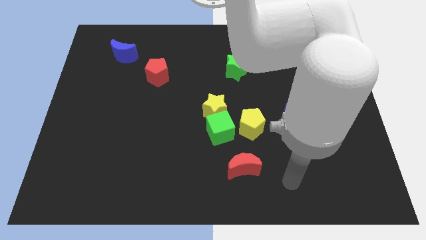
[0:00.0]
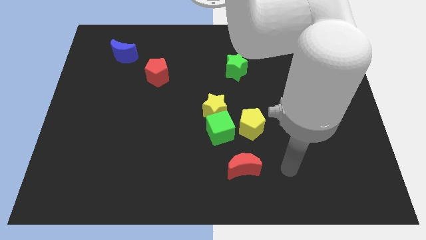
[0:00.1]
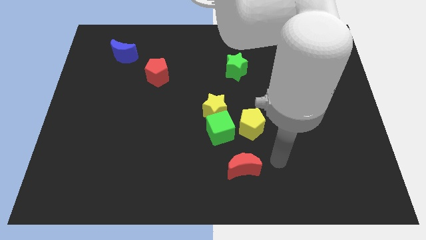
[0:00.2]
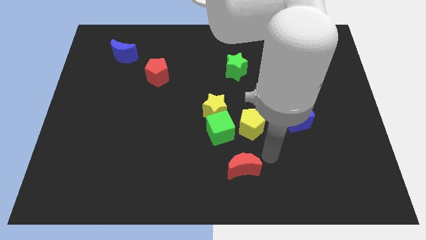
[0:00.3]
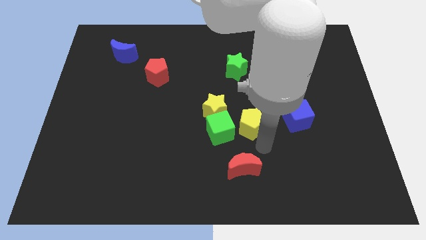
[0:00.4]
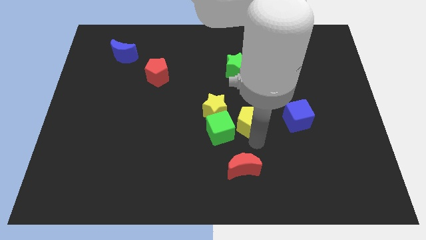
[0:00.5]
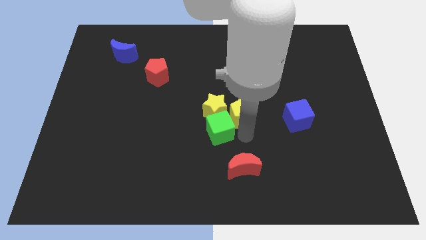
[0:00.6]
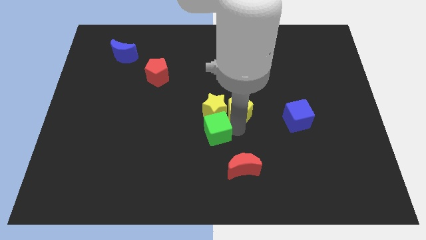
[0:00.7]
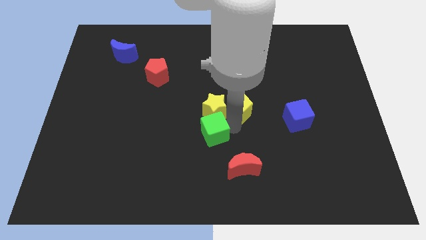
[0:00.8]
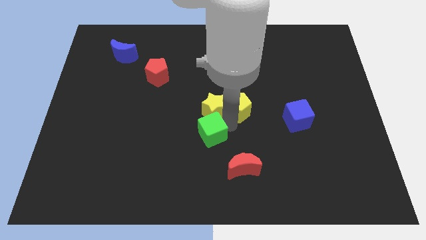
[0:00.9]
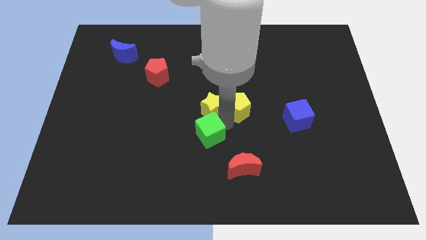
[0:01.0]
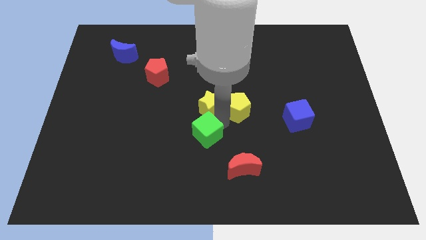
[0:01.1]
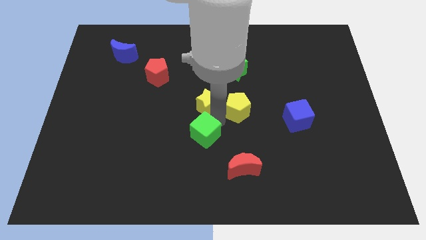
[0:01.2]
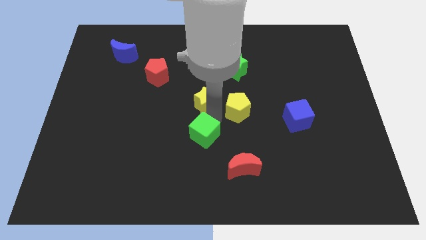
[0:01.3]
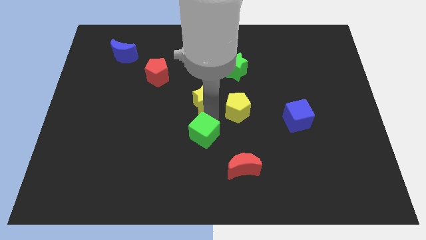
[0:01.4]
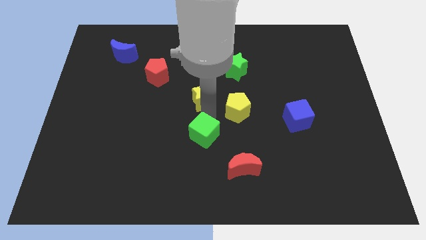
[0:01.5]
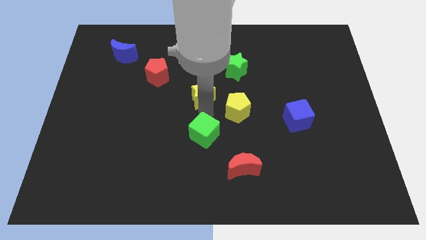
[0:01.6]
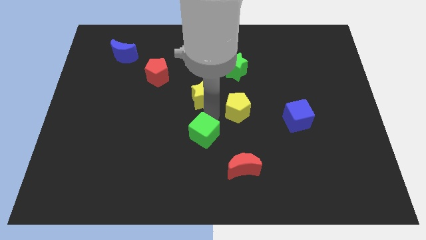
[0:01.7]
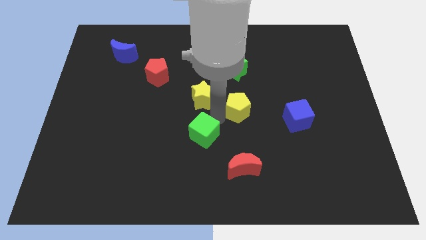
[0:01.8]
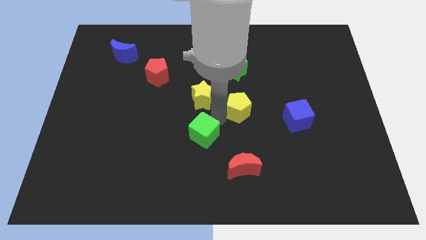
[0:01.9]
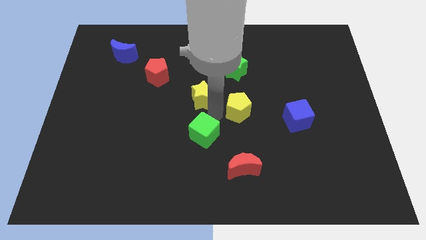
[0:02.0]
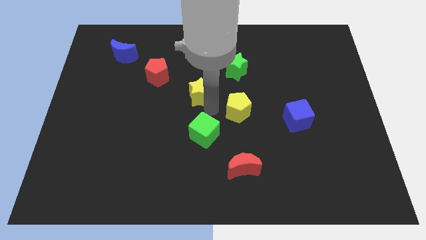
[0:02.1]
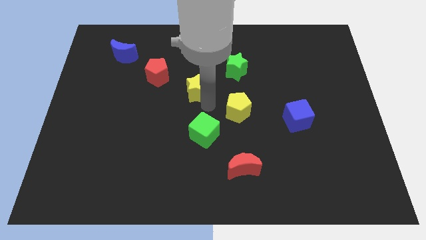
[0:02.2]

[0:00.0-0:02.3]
move the yellow star away from the green cube and yellow pentagon

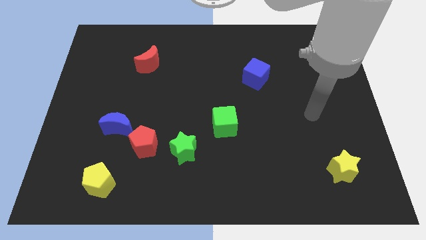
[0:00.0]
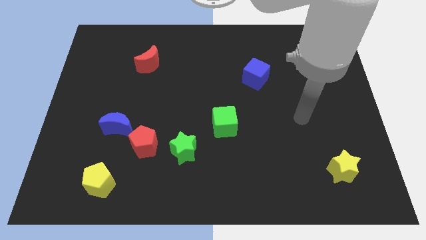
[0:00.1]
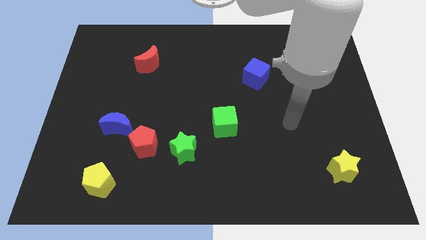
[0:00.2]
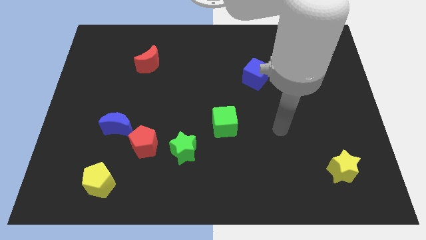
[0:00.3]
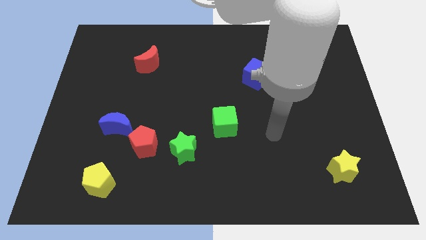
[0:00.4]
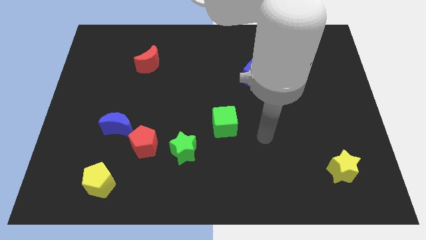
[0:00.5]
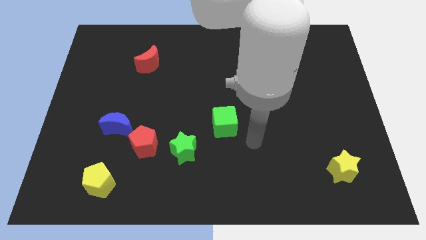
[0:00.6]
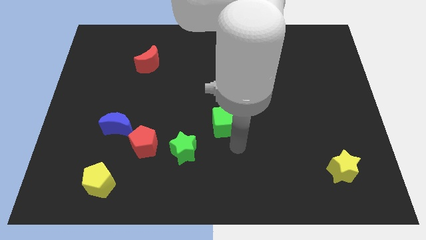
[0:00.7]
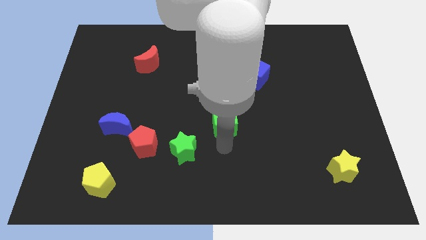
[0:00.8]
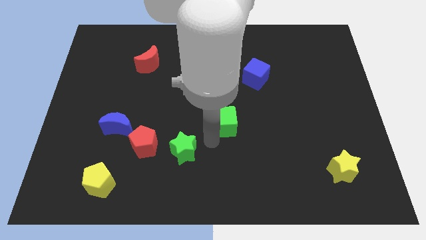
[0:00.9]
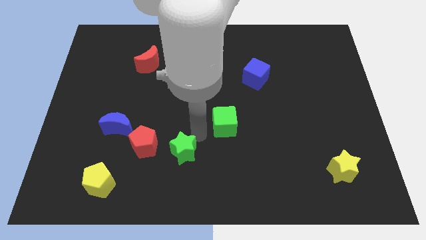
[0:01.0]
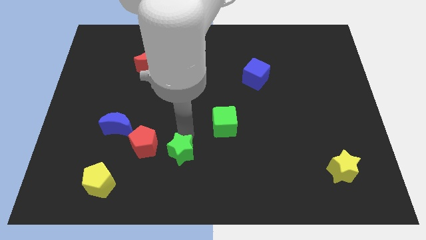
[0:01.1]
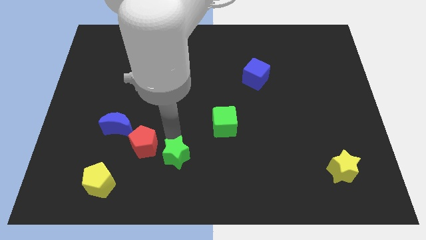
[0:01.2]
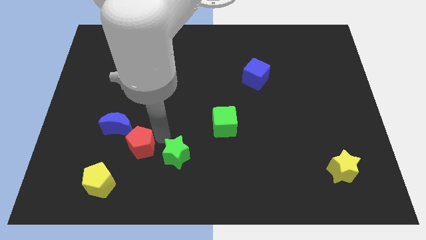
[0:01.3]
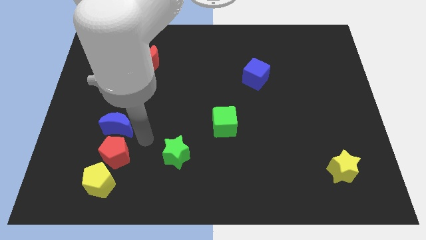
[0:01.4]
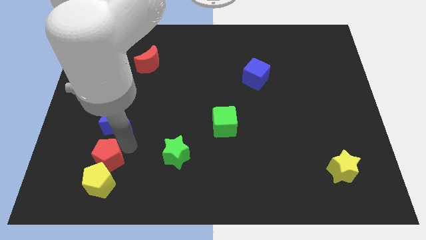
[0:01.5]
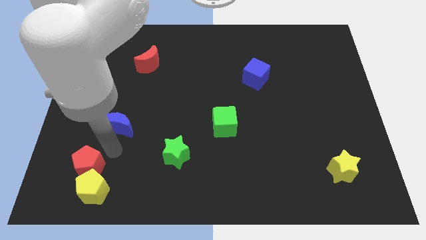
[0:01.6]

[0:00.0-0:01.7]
separate the blue moon from the red pentagon

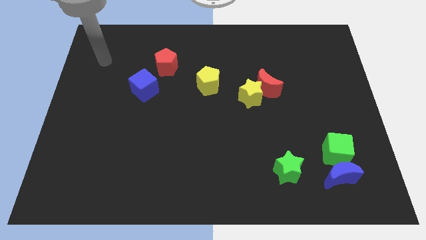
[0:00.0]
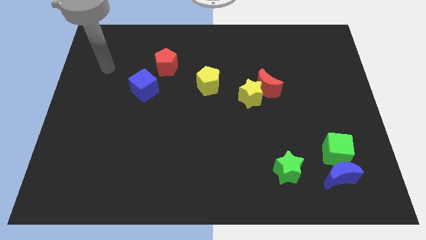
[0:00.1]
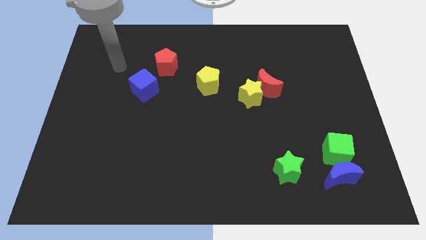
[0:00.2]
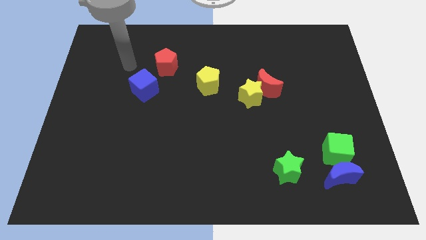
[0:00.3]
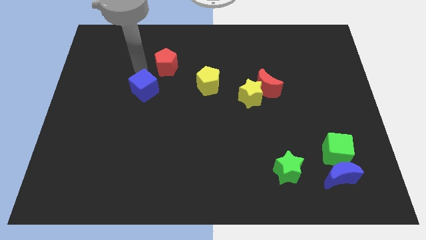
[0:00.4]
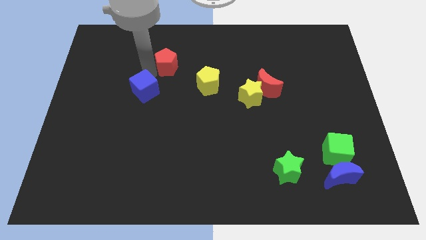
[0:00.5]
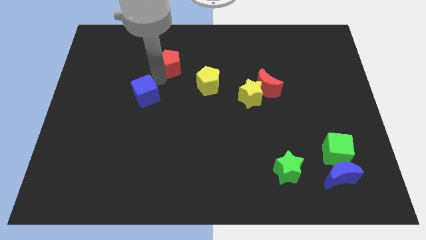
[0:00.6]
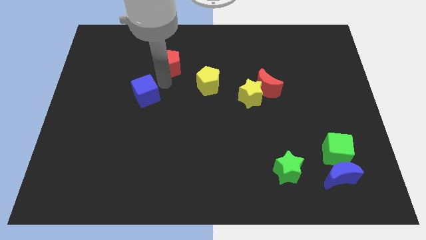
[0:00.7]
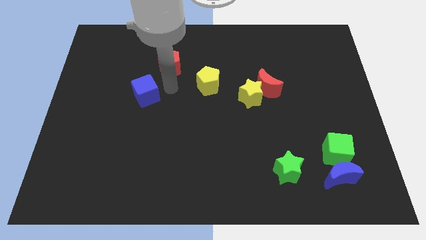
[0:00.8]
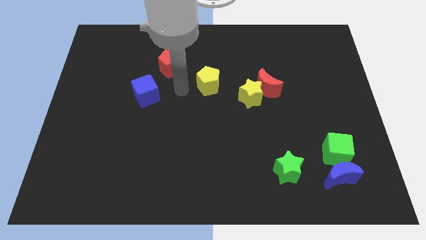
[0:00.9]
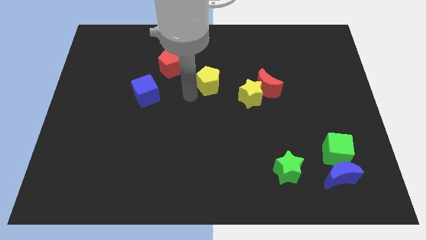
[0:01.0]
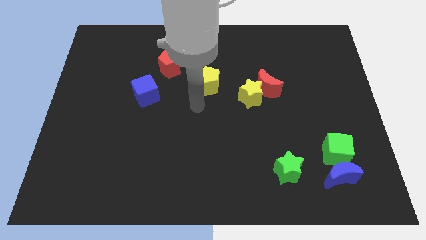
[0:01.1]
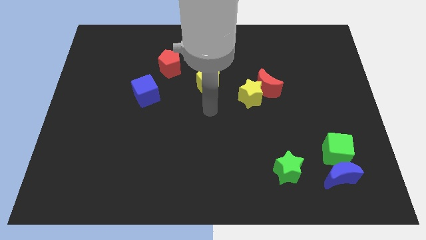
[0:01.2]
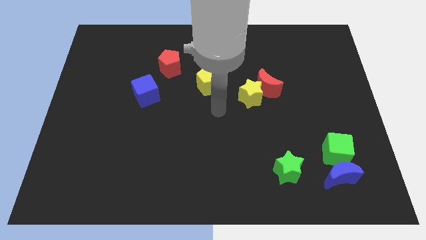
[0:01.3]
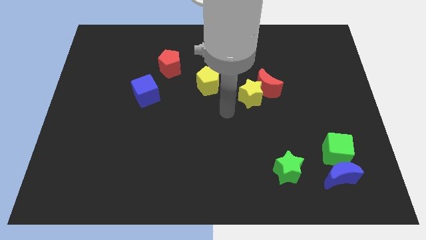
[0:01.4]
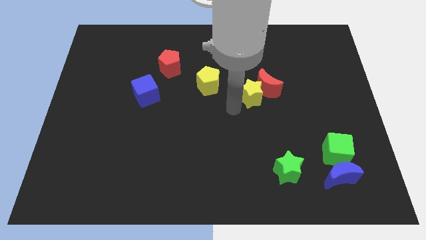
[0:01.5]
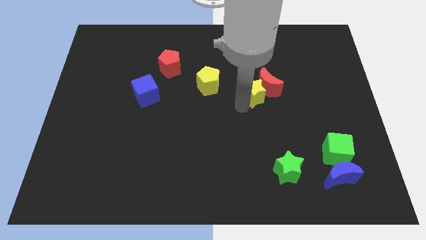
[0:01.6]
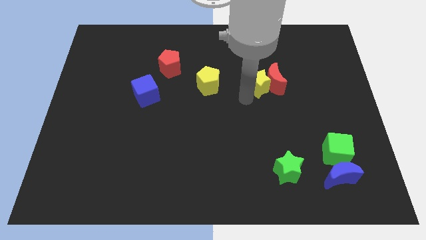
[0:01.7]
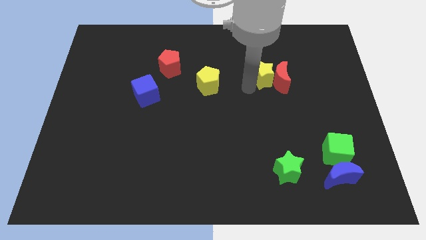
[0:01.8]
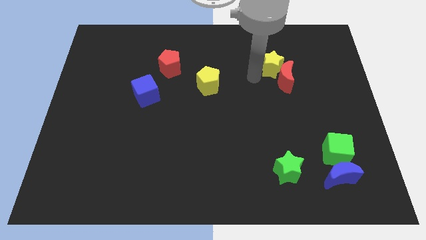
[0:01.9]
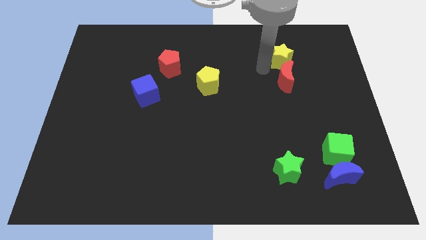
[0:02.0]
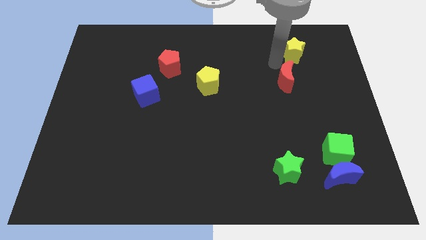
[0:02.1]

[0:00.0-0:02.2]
pull the red moon apart from the yellow star

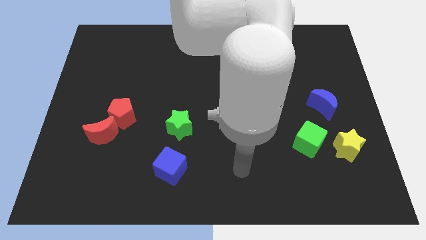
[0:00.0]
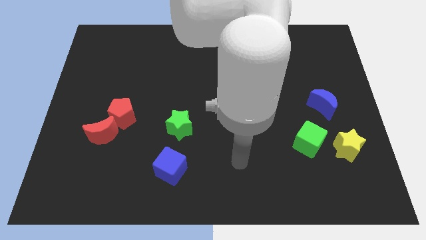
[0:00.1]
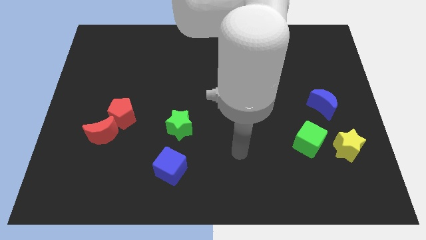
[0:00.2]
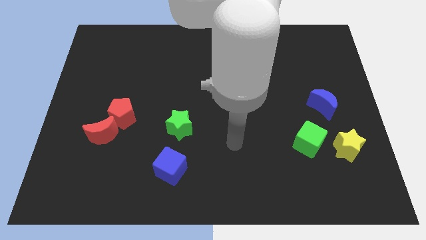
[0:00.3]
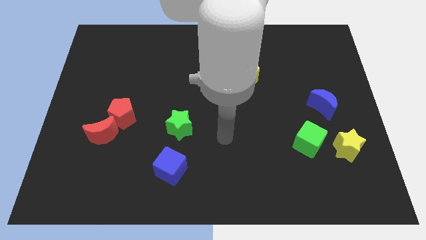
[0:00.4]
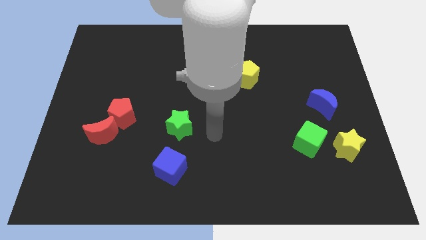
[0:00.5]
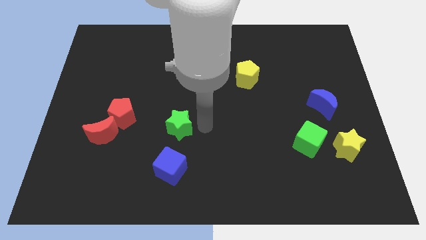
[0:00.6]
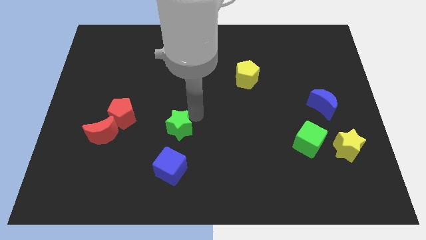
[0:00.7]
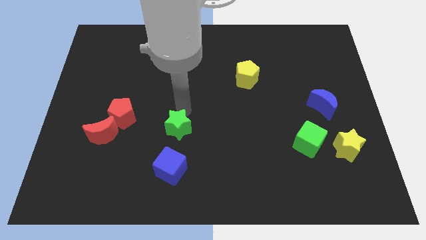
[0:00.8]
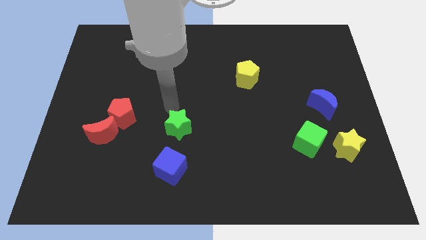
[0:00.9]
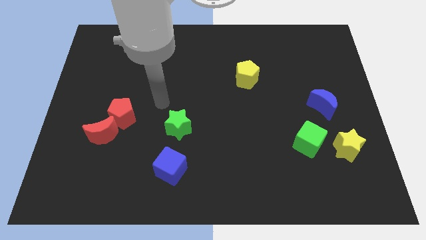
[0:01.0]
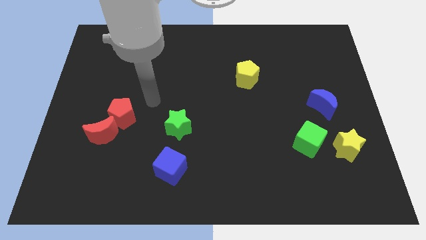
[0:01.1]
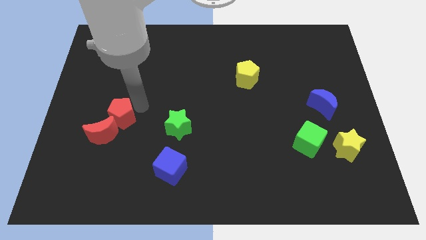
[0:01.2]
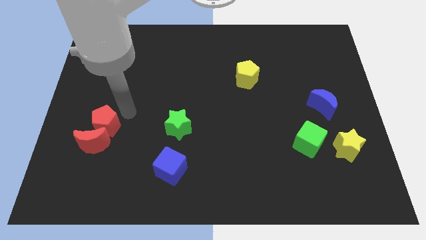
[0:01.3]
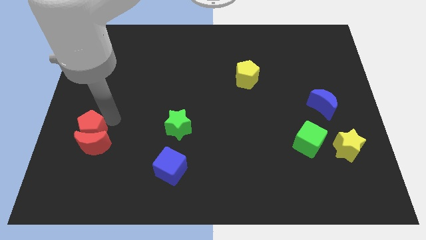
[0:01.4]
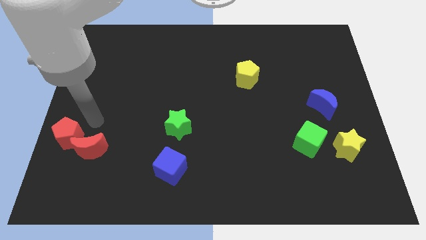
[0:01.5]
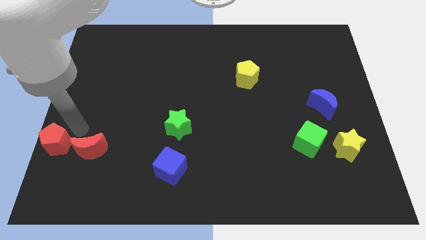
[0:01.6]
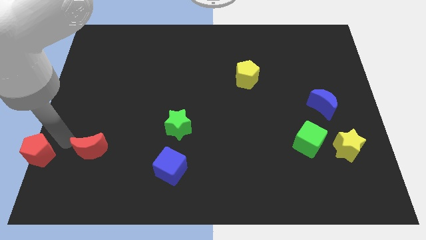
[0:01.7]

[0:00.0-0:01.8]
pull the red moon apart from the red pentagon

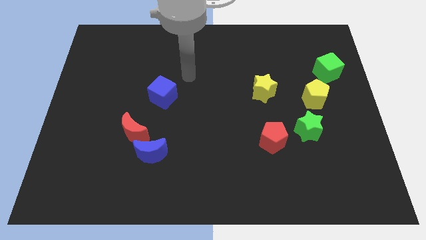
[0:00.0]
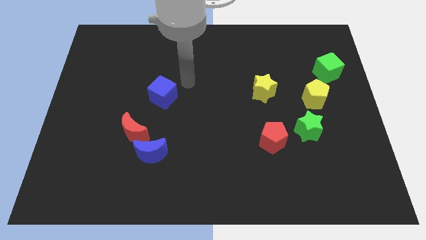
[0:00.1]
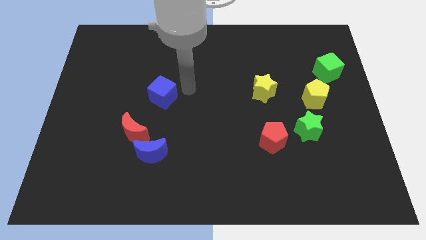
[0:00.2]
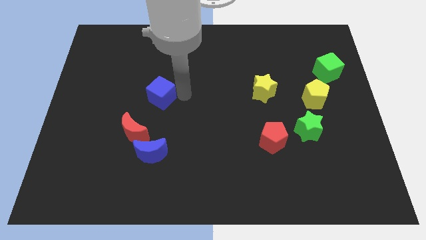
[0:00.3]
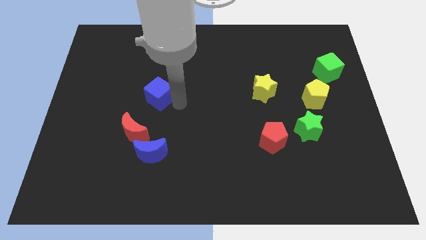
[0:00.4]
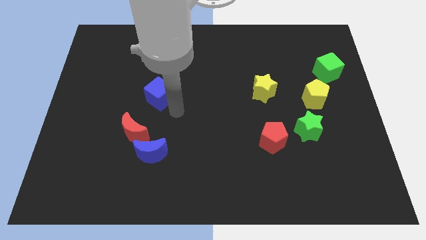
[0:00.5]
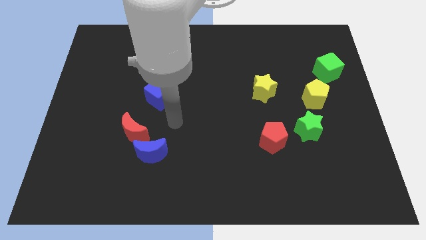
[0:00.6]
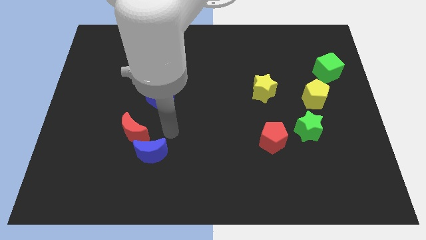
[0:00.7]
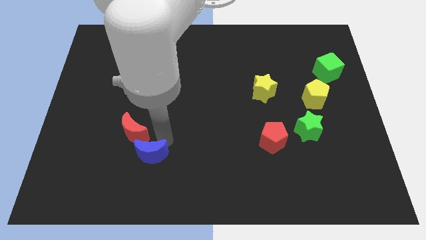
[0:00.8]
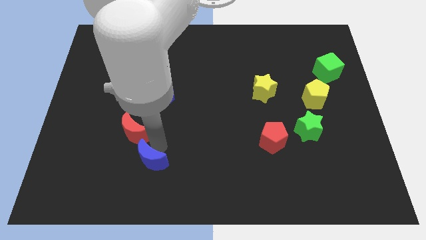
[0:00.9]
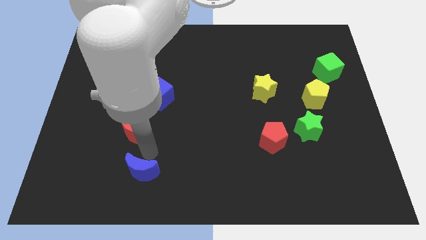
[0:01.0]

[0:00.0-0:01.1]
pull the red moon apart from the blue moon

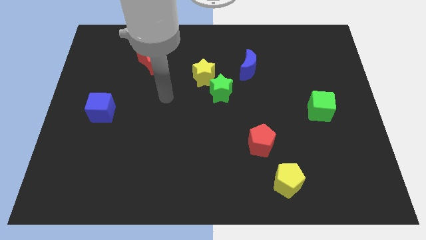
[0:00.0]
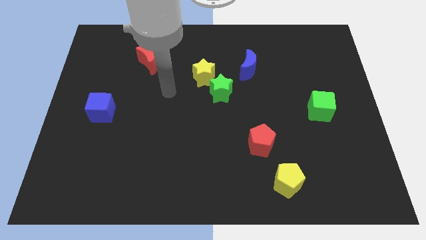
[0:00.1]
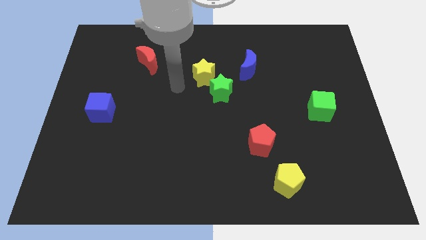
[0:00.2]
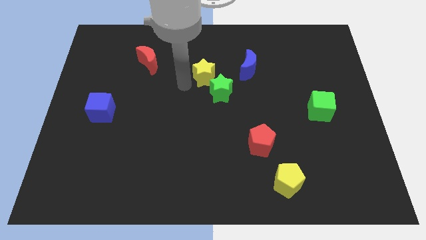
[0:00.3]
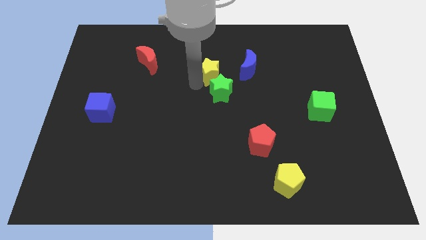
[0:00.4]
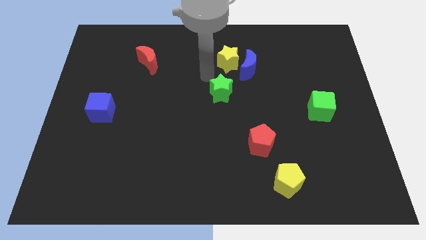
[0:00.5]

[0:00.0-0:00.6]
move the green star away from the yellow star
